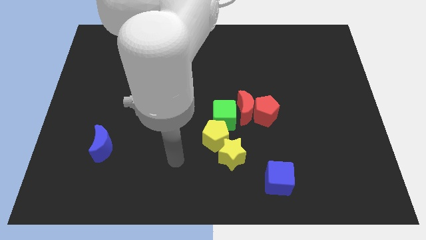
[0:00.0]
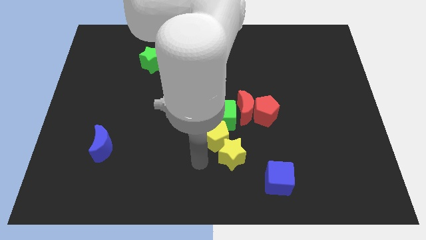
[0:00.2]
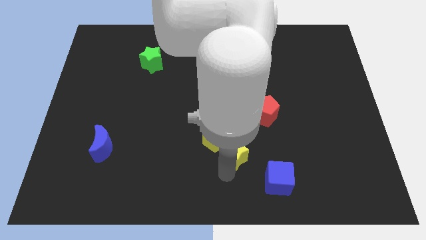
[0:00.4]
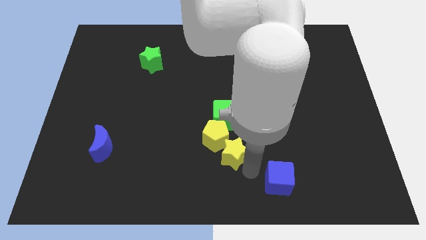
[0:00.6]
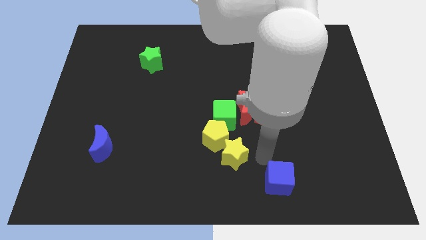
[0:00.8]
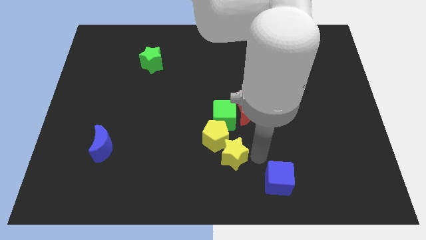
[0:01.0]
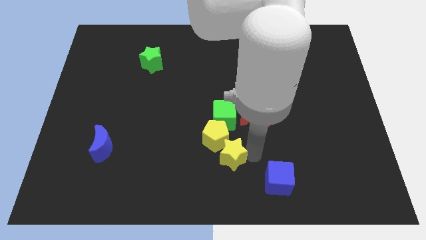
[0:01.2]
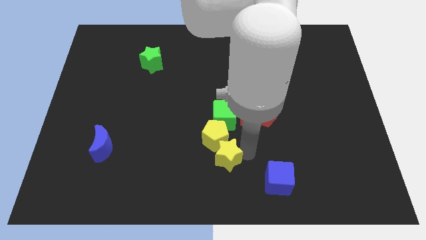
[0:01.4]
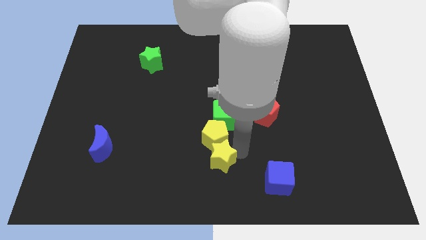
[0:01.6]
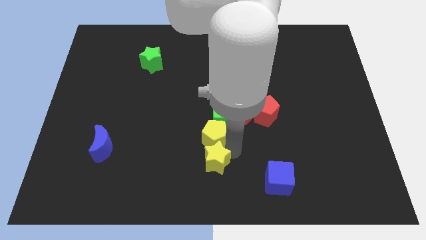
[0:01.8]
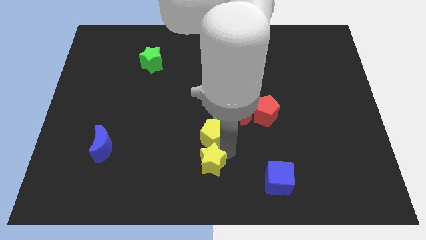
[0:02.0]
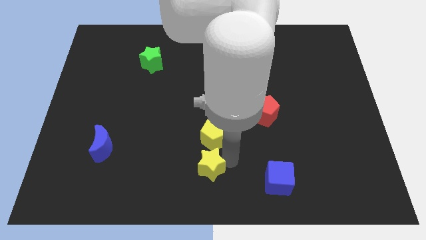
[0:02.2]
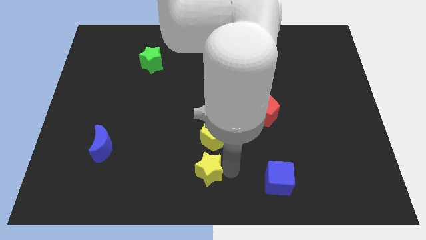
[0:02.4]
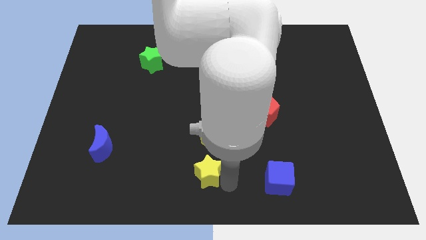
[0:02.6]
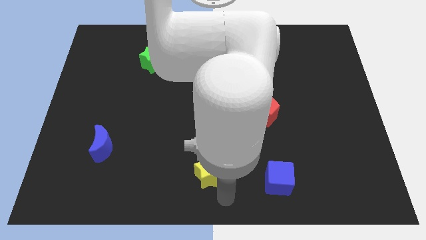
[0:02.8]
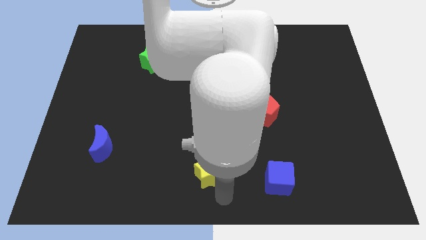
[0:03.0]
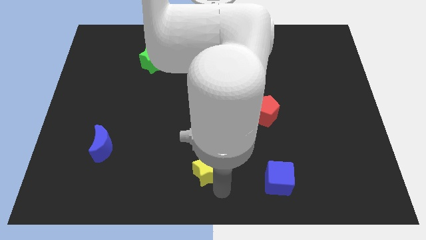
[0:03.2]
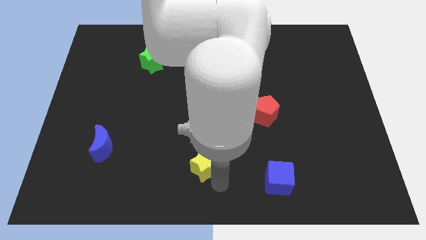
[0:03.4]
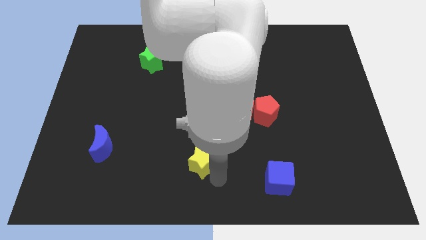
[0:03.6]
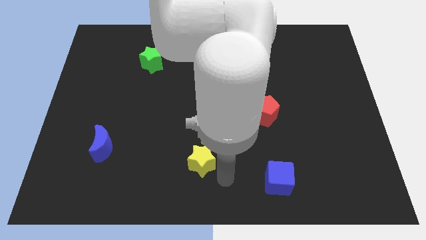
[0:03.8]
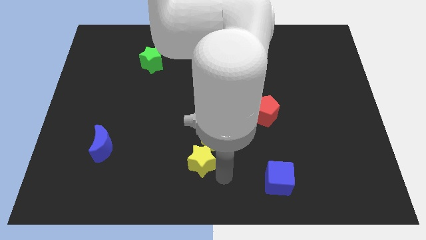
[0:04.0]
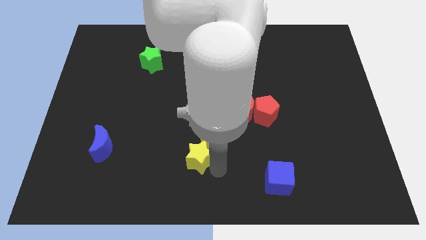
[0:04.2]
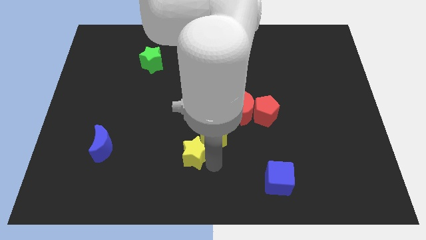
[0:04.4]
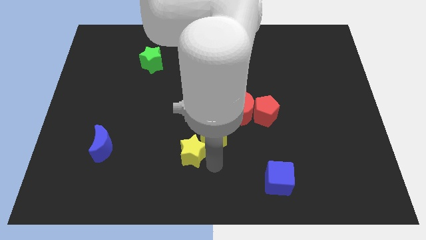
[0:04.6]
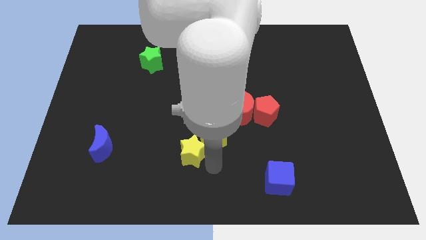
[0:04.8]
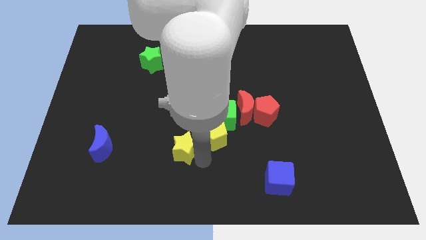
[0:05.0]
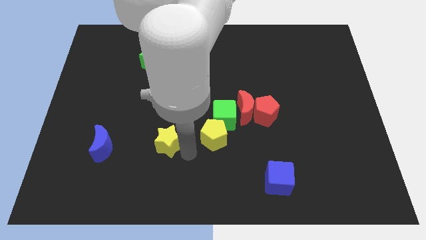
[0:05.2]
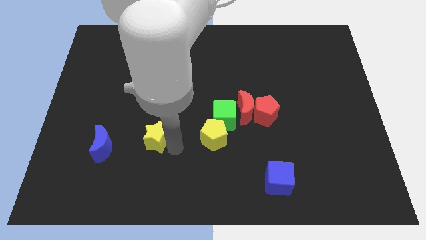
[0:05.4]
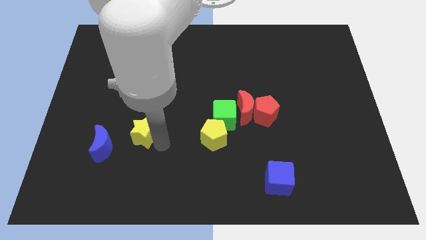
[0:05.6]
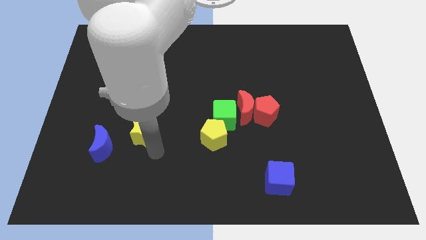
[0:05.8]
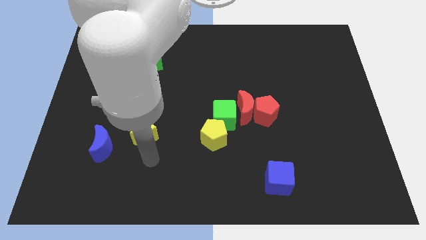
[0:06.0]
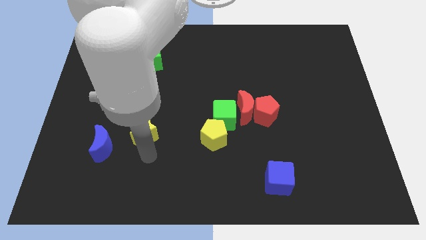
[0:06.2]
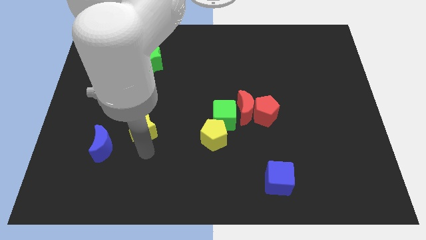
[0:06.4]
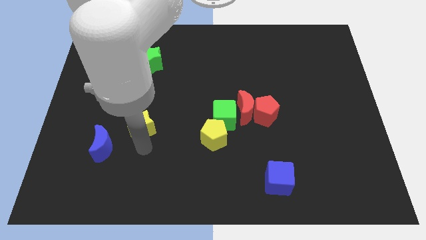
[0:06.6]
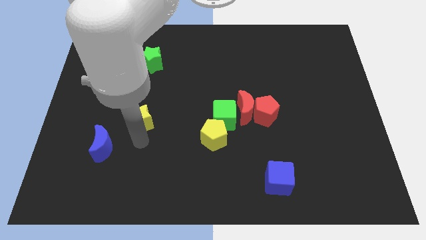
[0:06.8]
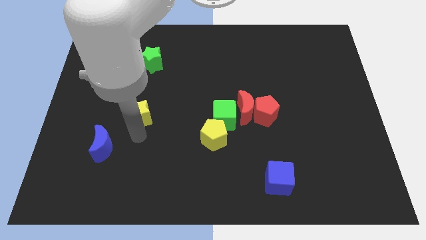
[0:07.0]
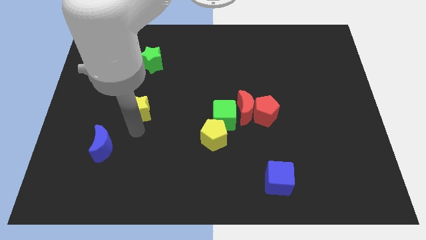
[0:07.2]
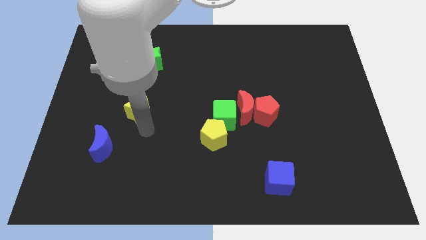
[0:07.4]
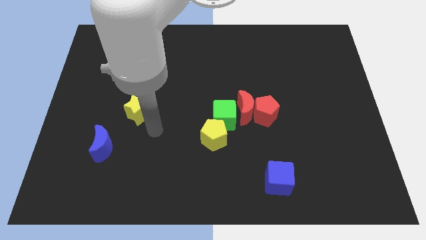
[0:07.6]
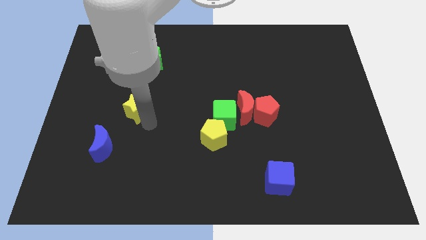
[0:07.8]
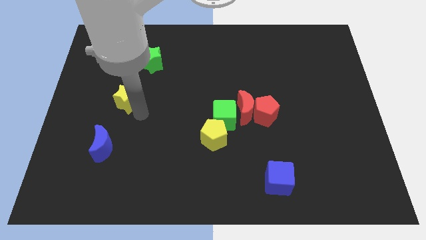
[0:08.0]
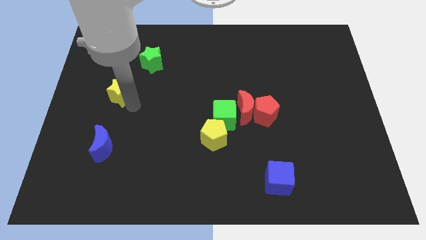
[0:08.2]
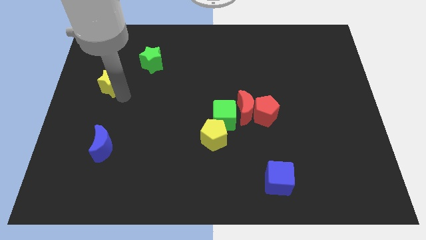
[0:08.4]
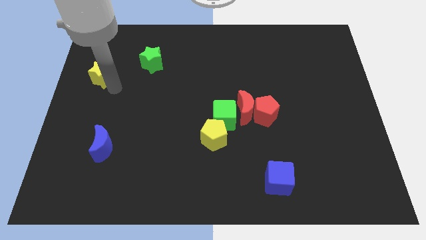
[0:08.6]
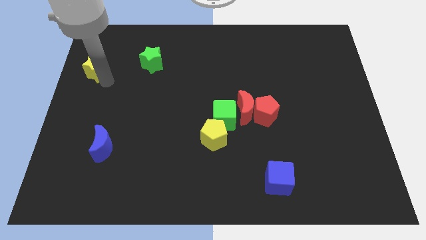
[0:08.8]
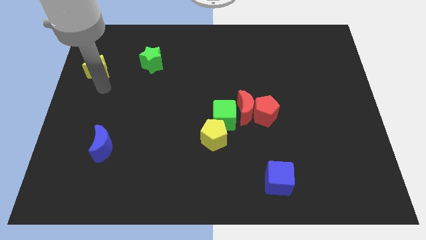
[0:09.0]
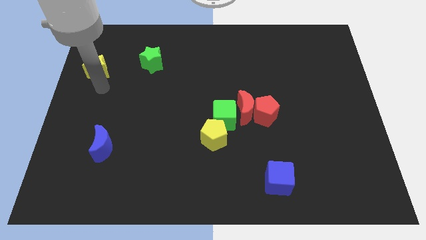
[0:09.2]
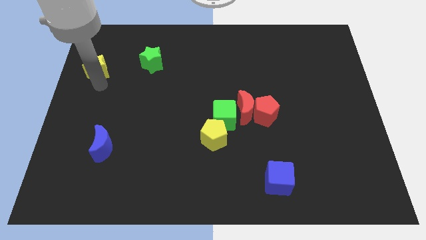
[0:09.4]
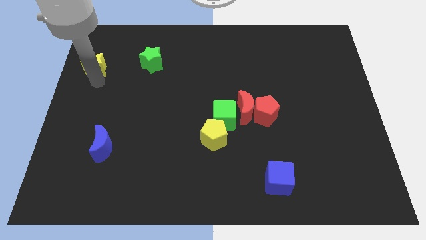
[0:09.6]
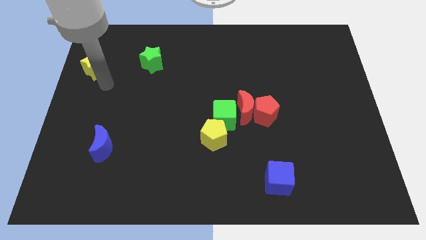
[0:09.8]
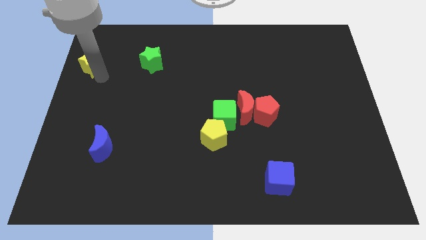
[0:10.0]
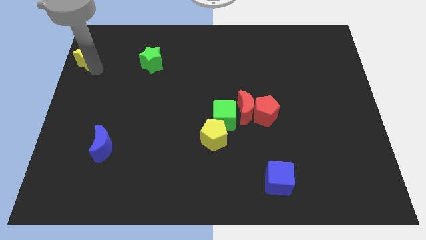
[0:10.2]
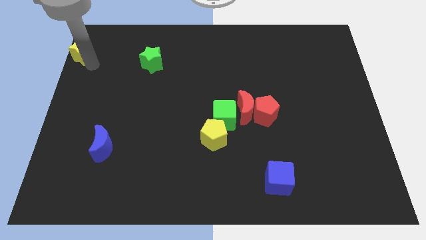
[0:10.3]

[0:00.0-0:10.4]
slide the yellow star to the top left of the board

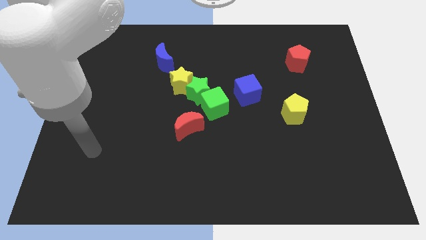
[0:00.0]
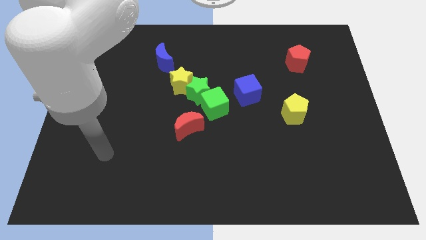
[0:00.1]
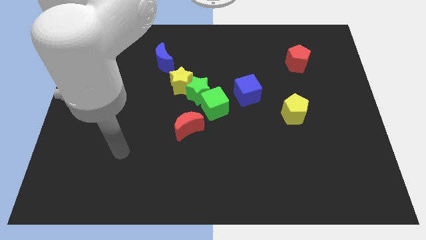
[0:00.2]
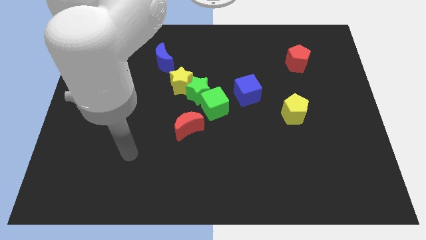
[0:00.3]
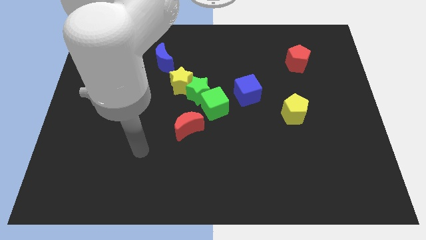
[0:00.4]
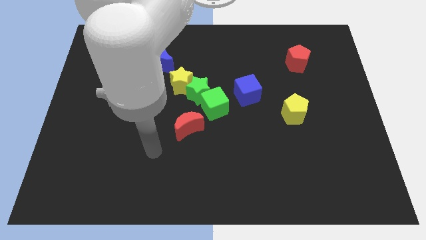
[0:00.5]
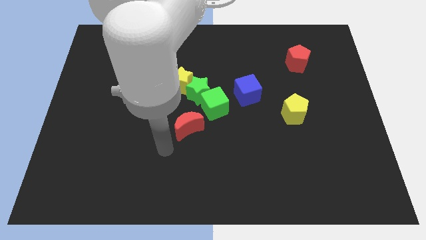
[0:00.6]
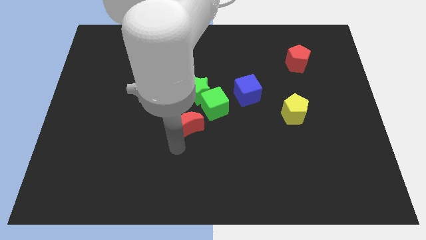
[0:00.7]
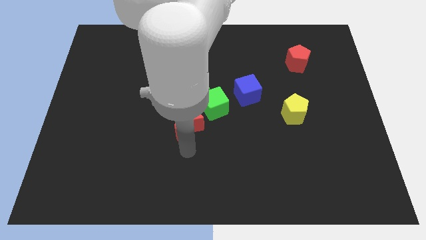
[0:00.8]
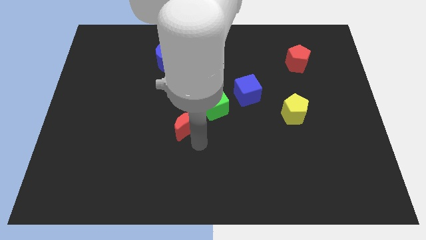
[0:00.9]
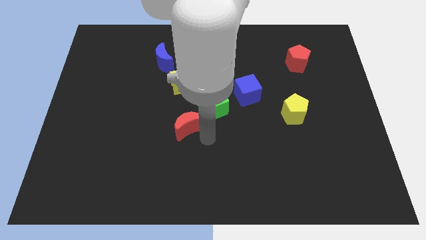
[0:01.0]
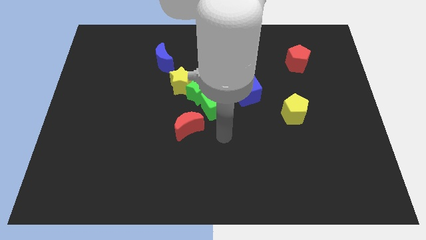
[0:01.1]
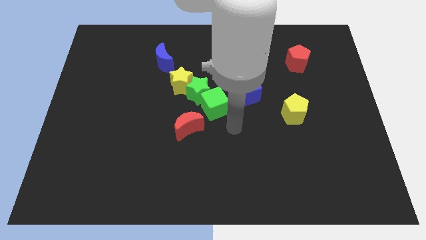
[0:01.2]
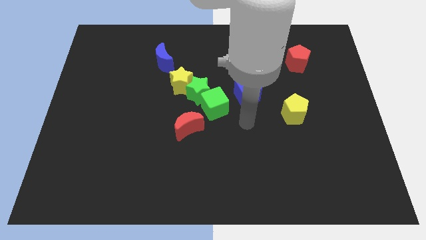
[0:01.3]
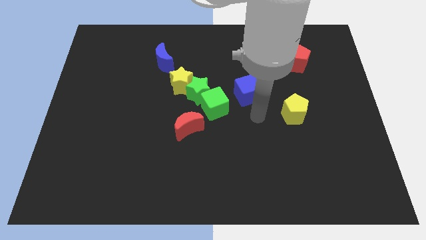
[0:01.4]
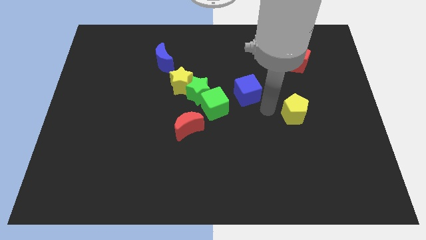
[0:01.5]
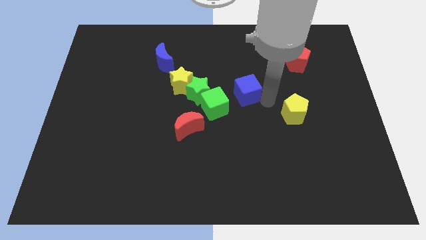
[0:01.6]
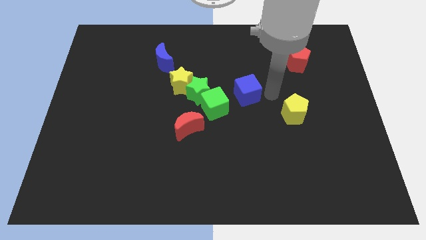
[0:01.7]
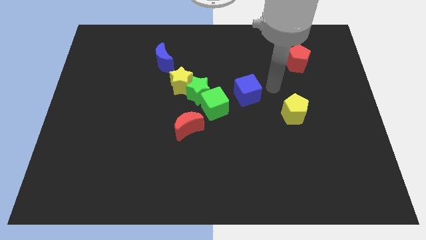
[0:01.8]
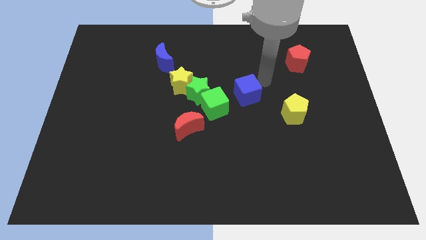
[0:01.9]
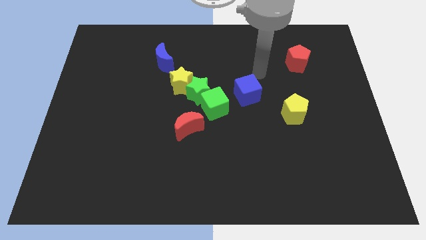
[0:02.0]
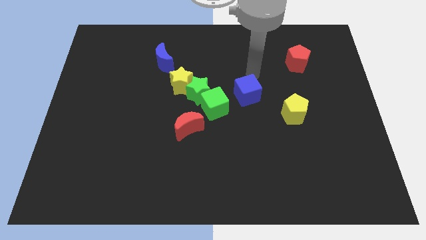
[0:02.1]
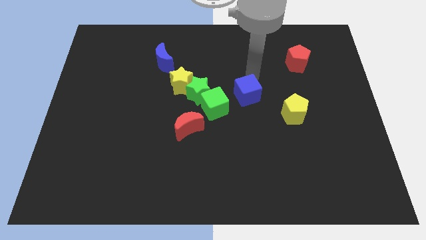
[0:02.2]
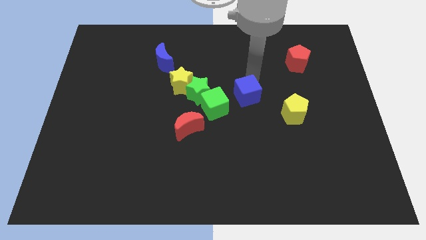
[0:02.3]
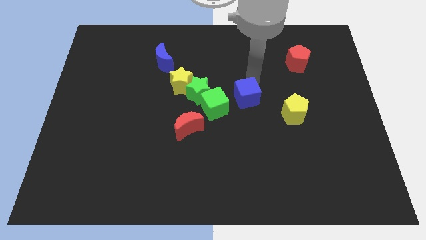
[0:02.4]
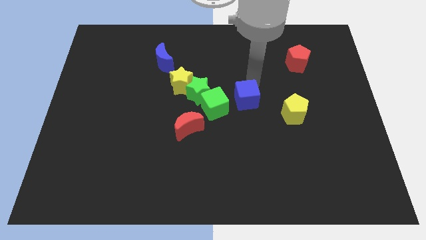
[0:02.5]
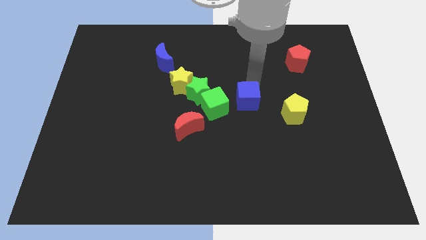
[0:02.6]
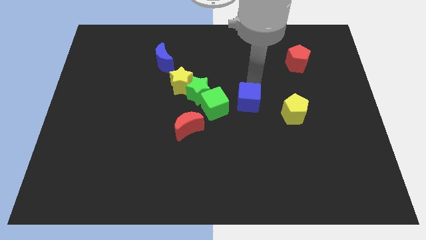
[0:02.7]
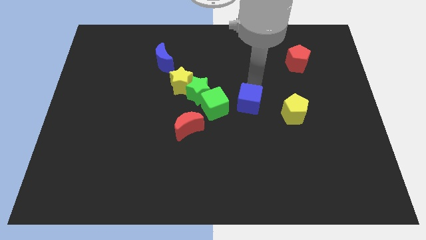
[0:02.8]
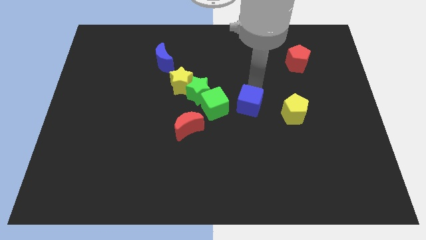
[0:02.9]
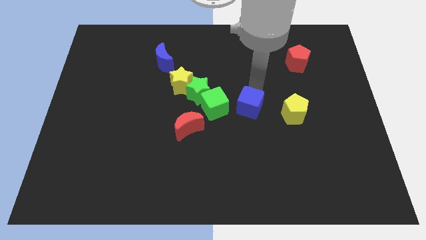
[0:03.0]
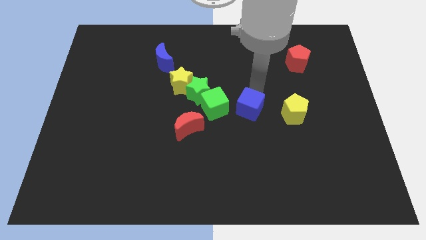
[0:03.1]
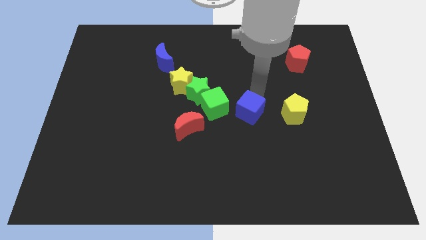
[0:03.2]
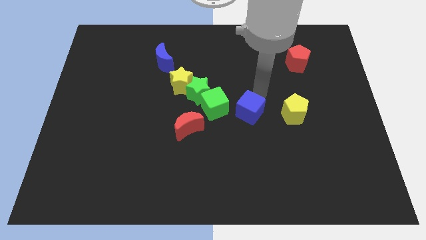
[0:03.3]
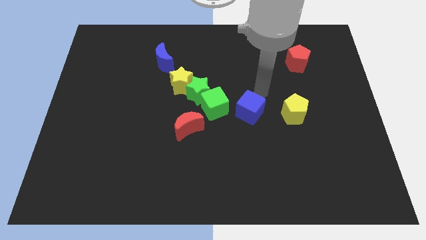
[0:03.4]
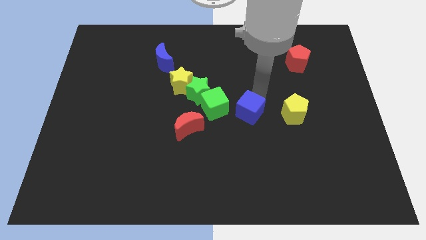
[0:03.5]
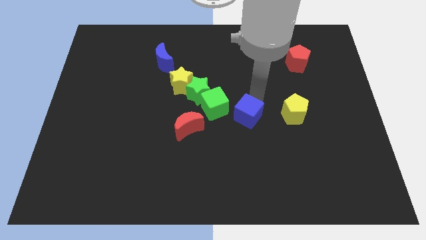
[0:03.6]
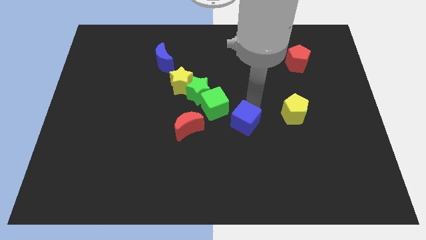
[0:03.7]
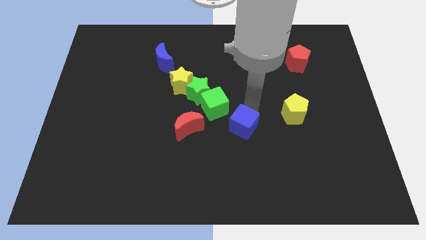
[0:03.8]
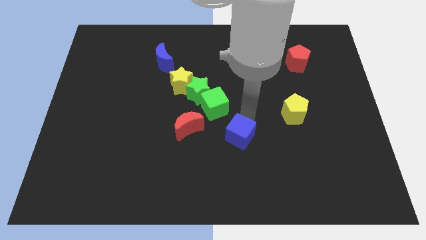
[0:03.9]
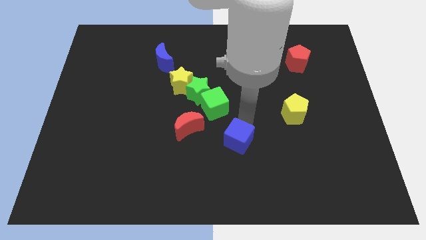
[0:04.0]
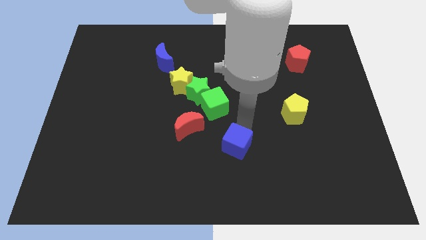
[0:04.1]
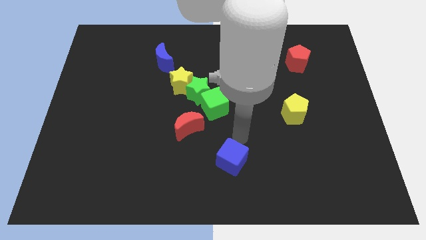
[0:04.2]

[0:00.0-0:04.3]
move the blue cube to the bottom
